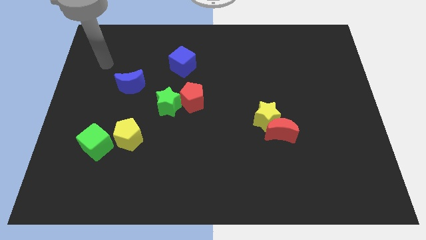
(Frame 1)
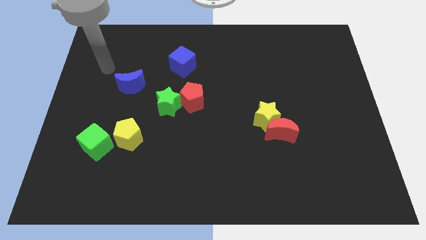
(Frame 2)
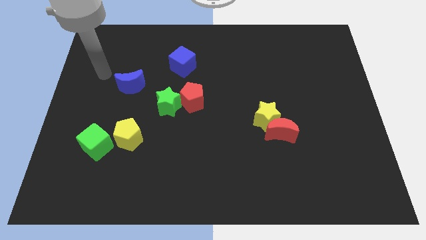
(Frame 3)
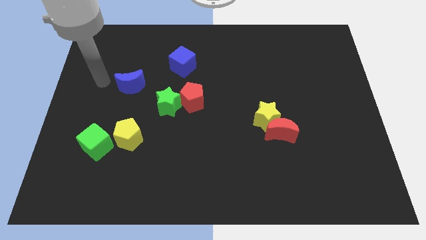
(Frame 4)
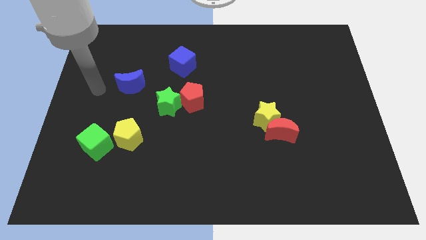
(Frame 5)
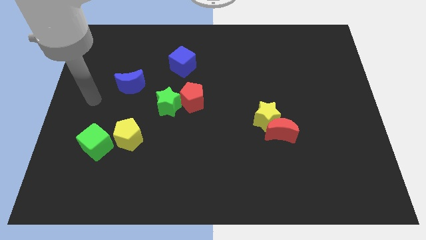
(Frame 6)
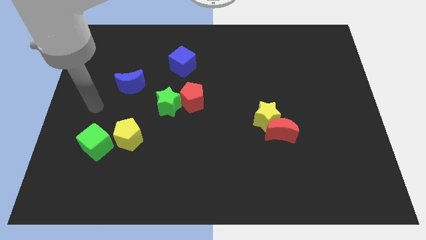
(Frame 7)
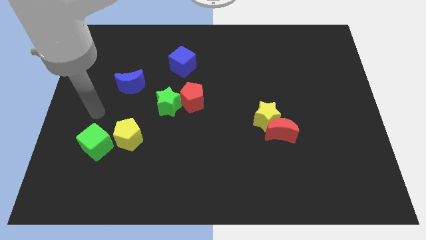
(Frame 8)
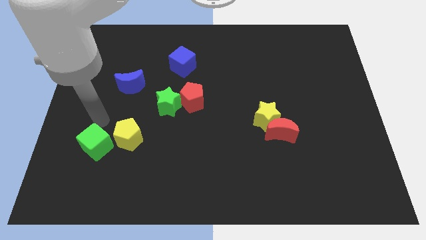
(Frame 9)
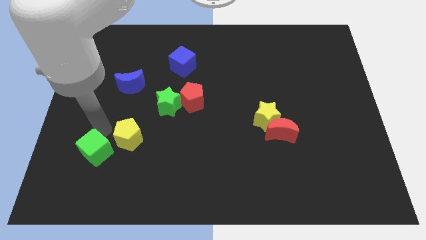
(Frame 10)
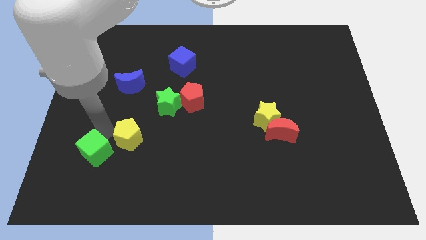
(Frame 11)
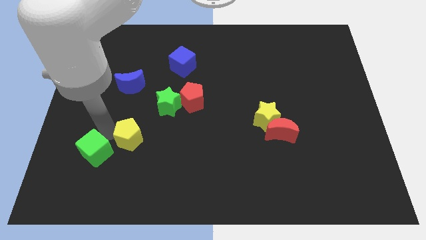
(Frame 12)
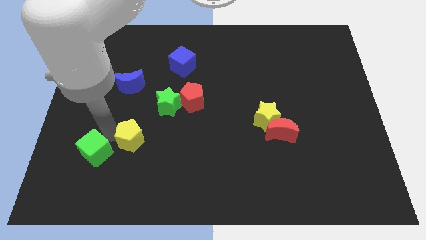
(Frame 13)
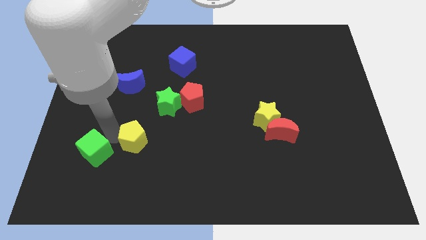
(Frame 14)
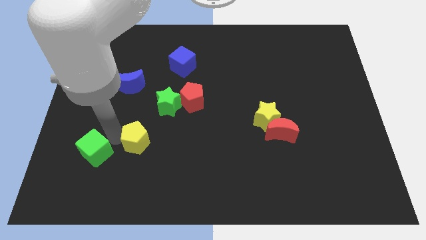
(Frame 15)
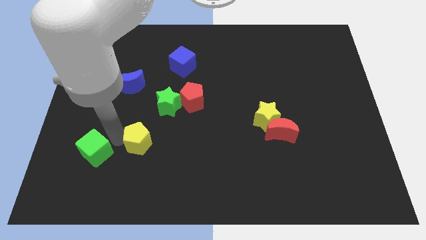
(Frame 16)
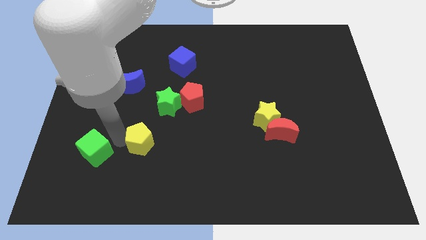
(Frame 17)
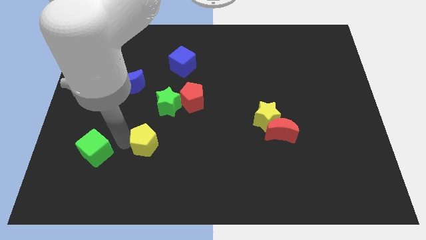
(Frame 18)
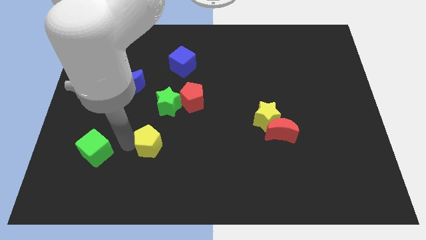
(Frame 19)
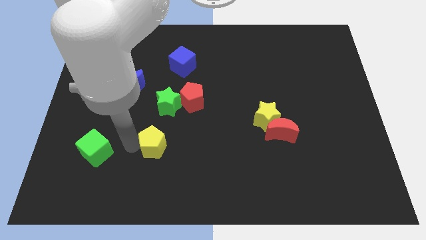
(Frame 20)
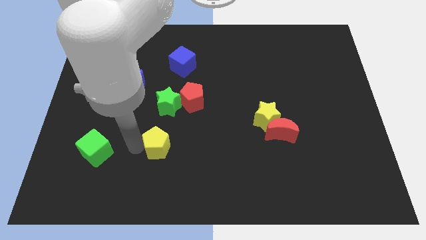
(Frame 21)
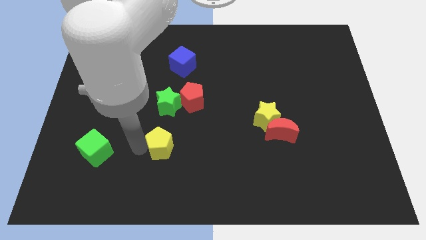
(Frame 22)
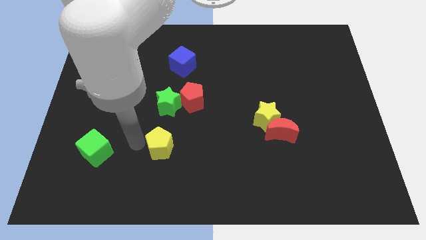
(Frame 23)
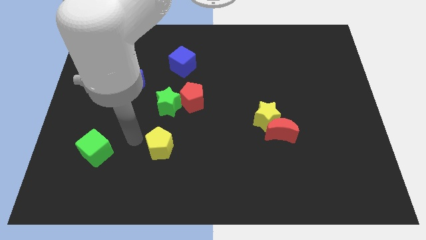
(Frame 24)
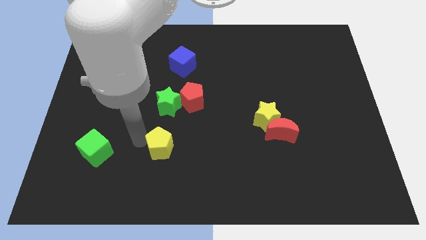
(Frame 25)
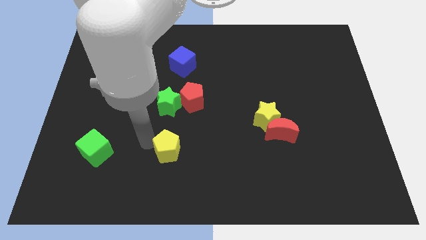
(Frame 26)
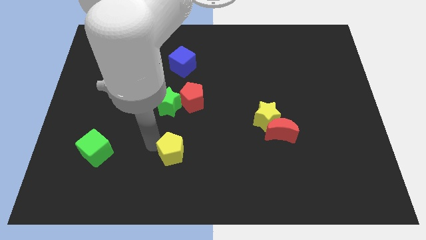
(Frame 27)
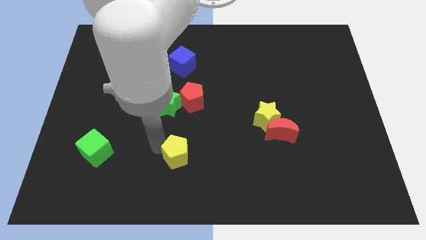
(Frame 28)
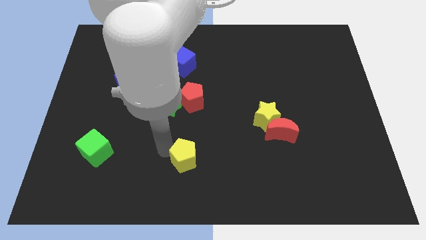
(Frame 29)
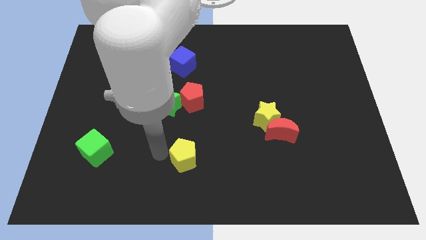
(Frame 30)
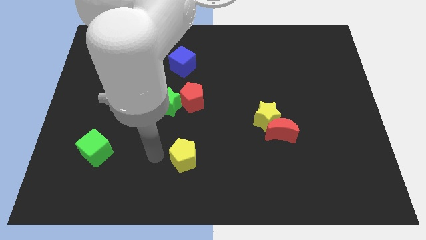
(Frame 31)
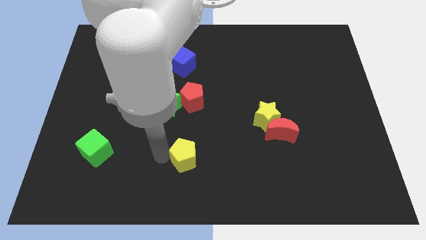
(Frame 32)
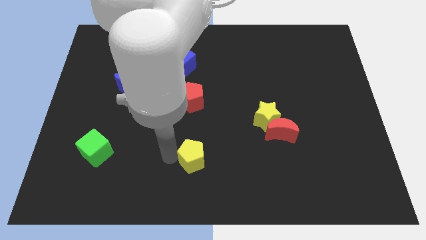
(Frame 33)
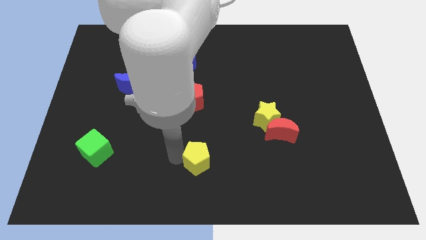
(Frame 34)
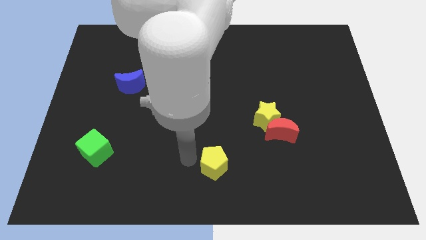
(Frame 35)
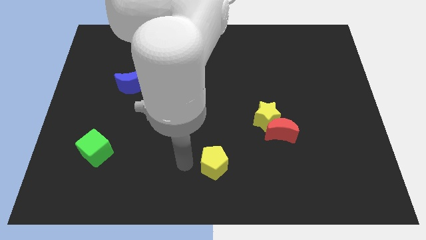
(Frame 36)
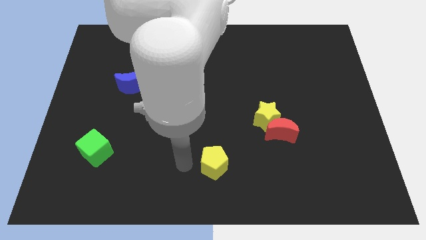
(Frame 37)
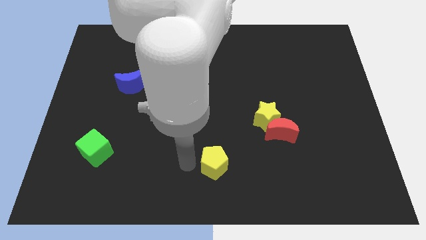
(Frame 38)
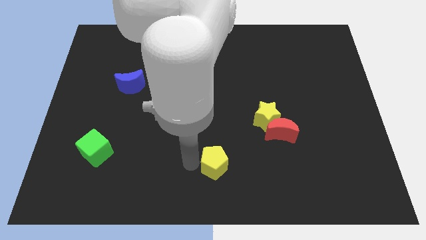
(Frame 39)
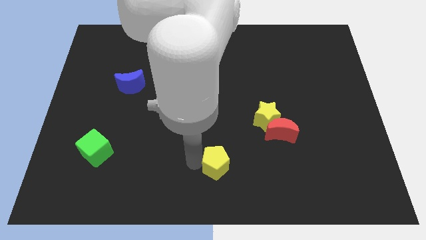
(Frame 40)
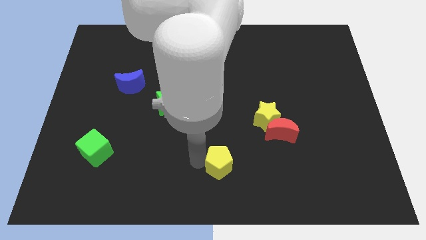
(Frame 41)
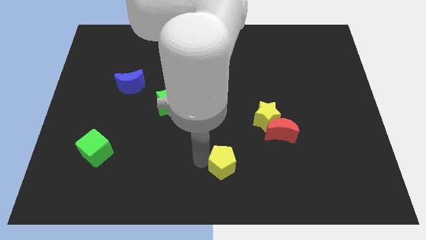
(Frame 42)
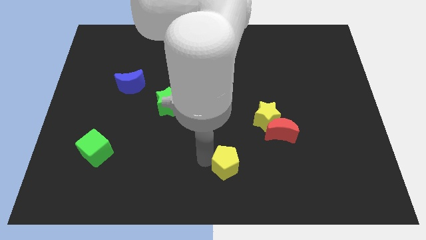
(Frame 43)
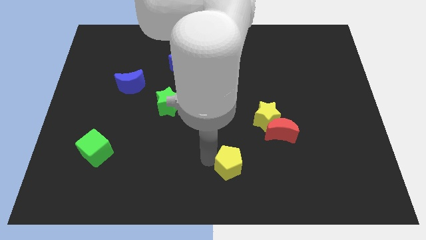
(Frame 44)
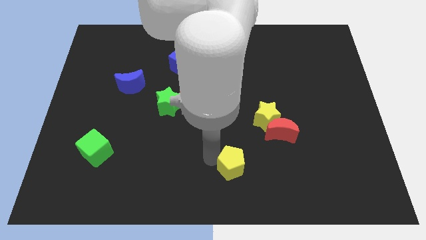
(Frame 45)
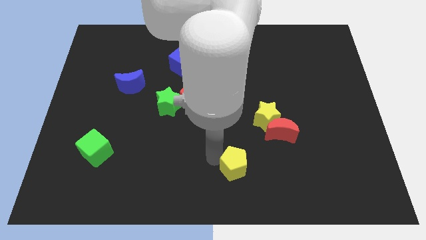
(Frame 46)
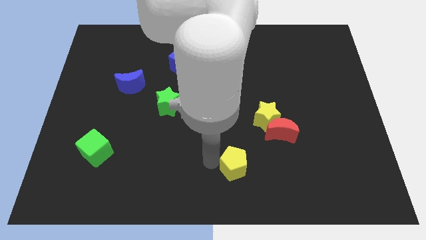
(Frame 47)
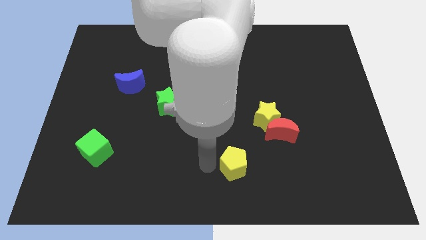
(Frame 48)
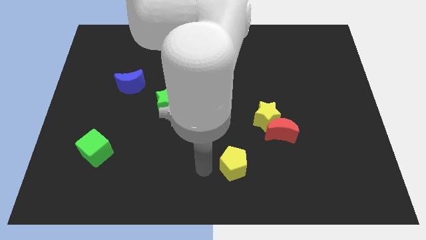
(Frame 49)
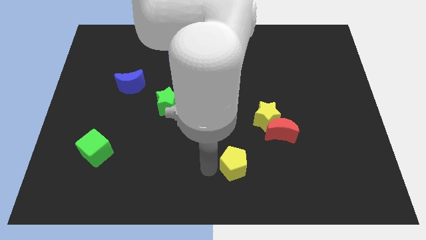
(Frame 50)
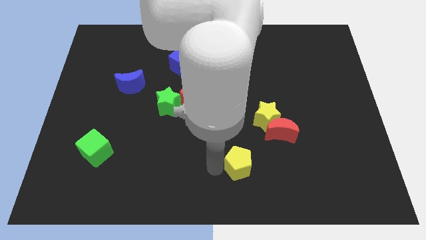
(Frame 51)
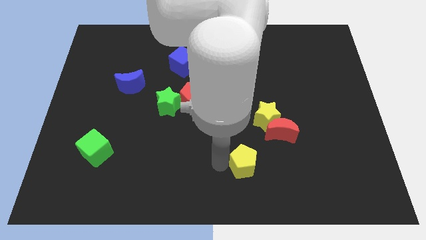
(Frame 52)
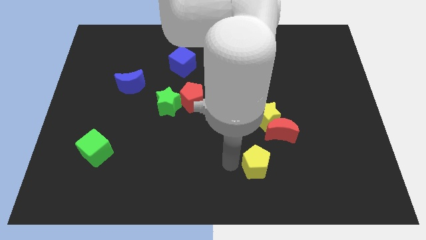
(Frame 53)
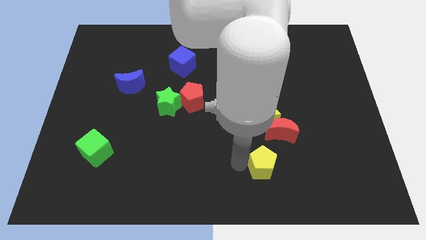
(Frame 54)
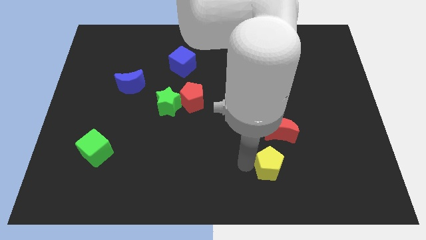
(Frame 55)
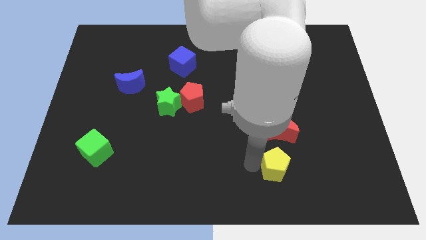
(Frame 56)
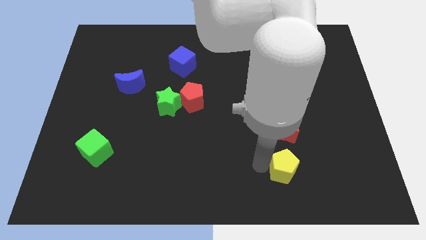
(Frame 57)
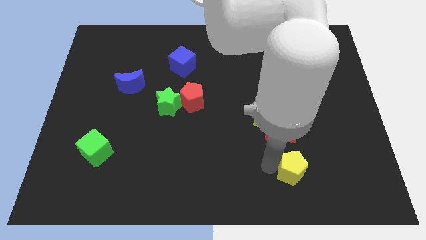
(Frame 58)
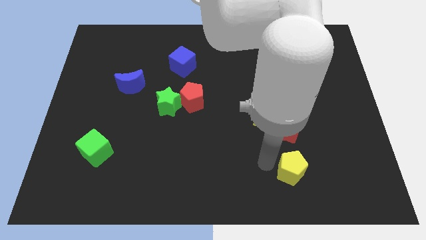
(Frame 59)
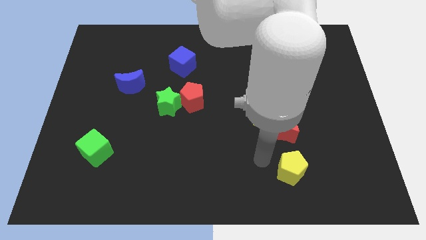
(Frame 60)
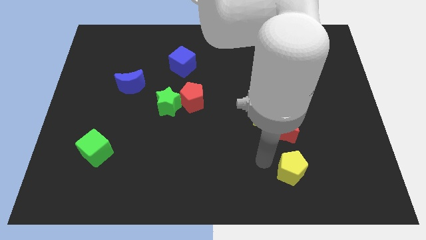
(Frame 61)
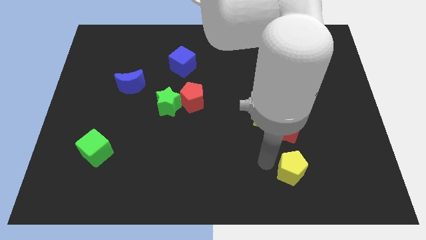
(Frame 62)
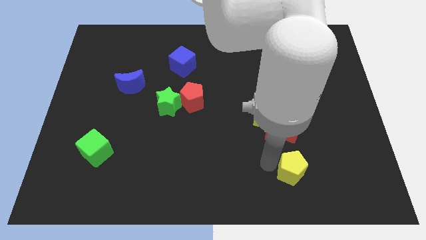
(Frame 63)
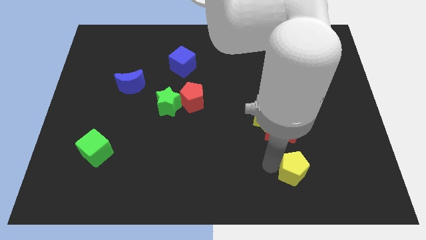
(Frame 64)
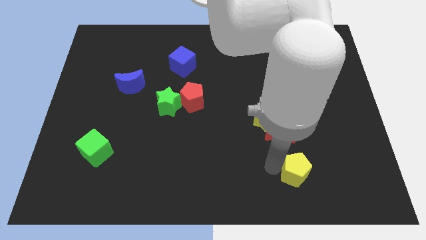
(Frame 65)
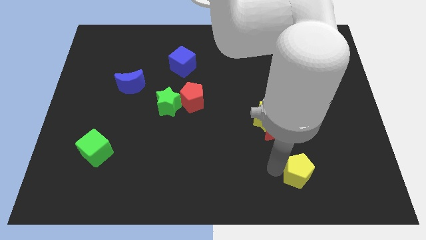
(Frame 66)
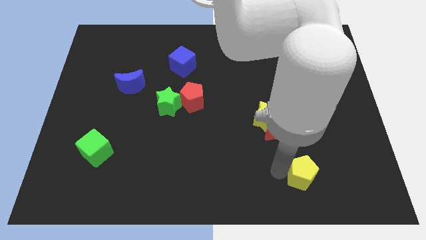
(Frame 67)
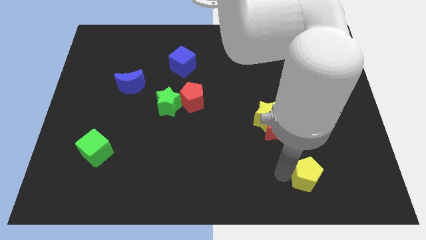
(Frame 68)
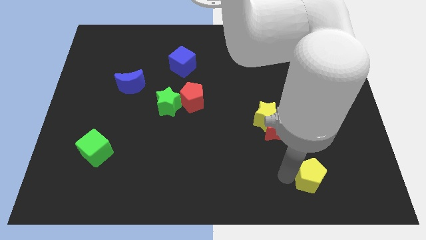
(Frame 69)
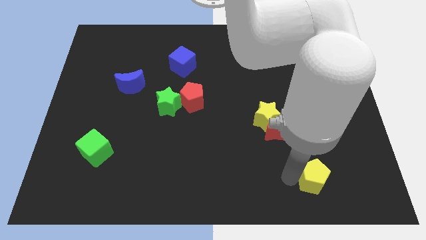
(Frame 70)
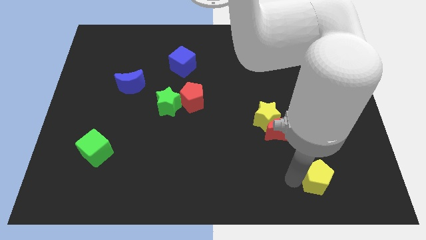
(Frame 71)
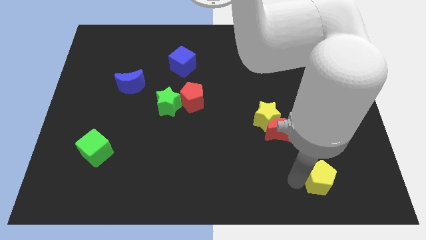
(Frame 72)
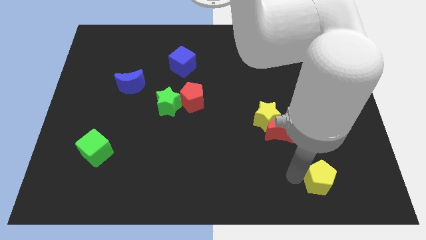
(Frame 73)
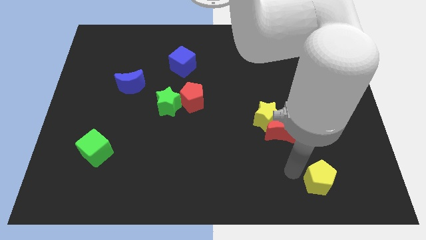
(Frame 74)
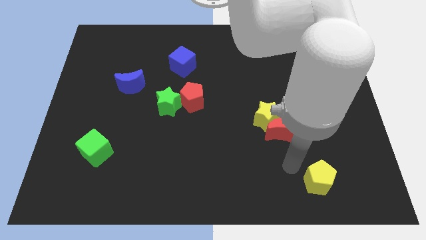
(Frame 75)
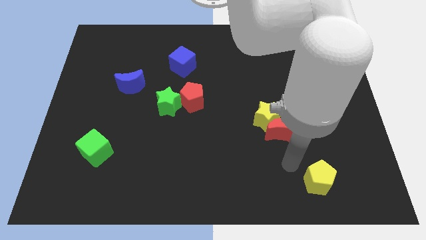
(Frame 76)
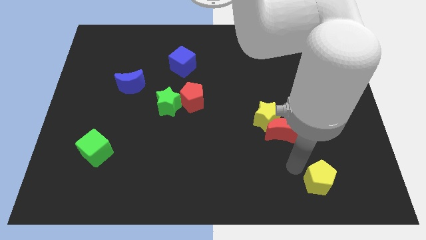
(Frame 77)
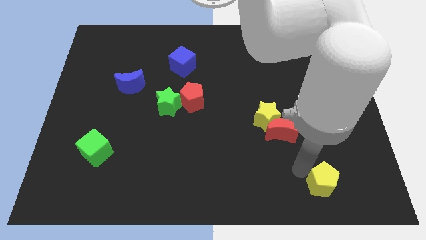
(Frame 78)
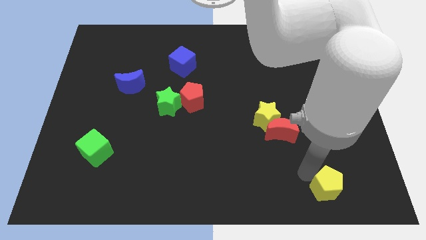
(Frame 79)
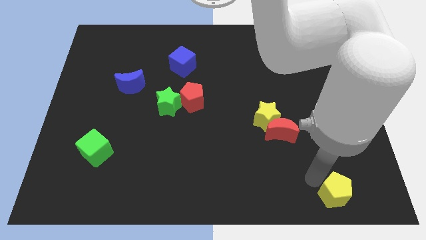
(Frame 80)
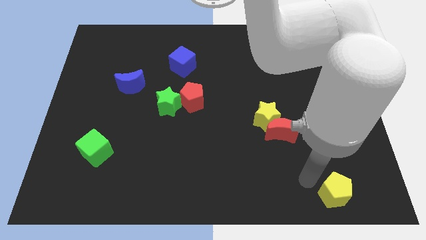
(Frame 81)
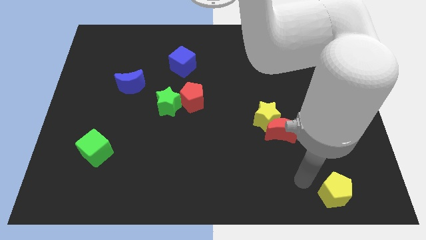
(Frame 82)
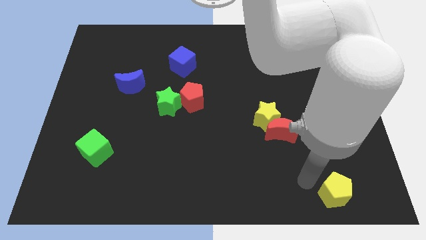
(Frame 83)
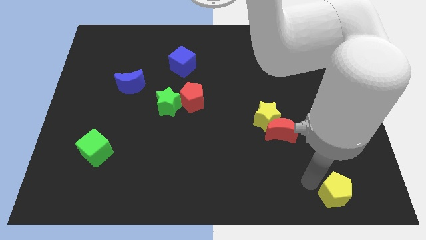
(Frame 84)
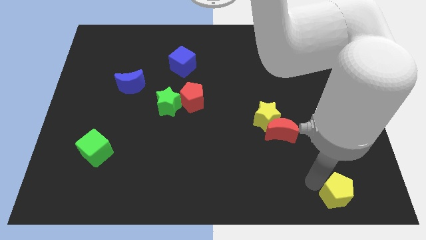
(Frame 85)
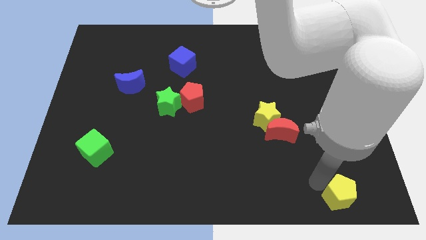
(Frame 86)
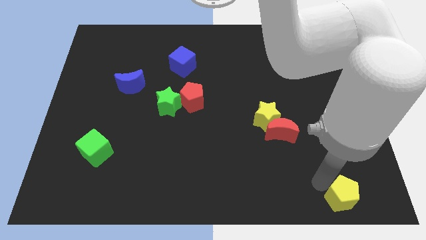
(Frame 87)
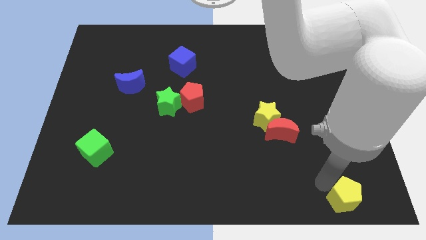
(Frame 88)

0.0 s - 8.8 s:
push the yellow pentagon to the bottom right corner
